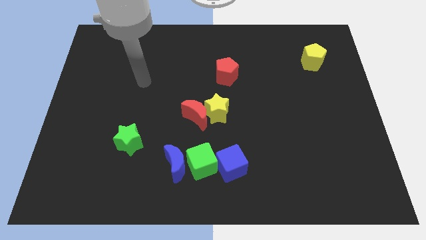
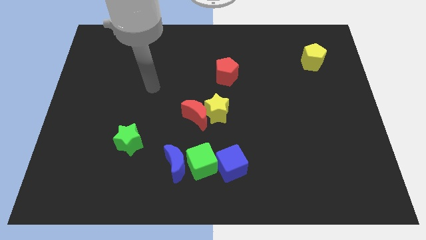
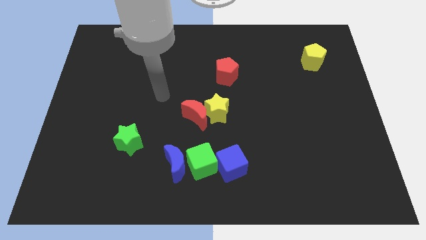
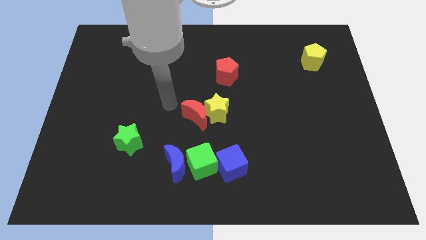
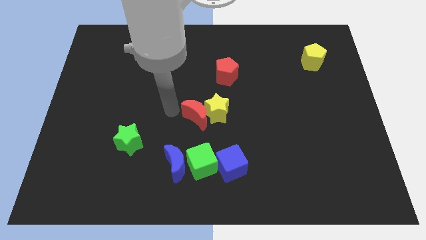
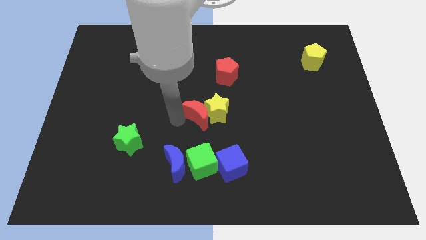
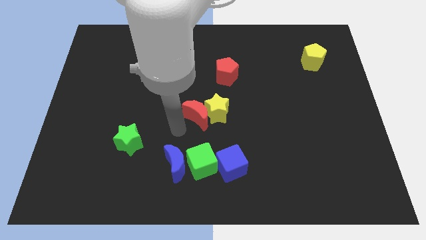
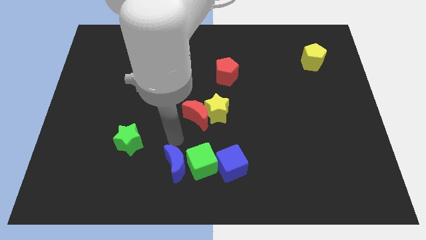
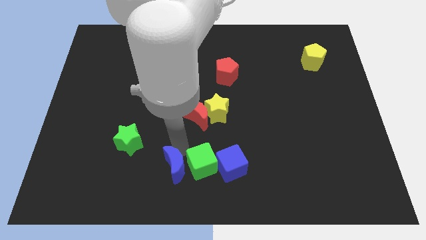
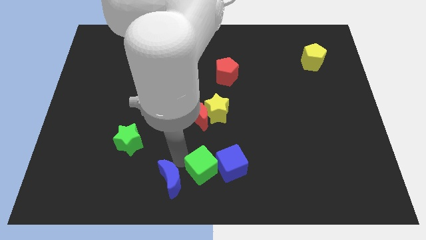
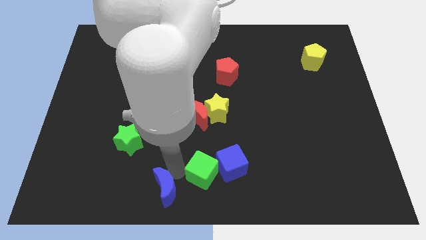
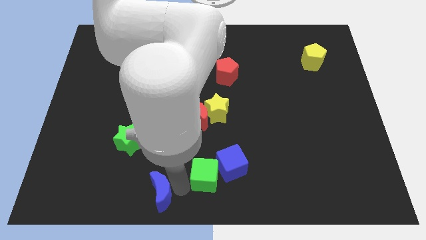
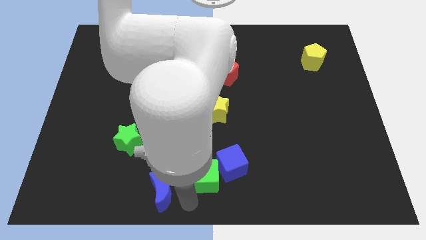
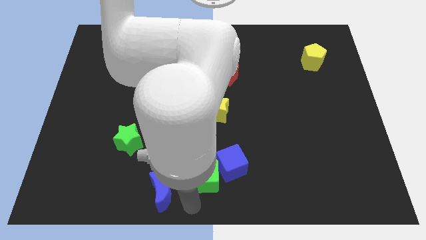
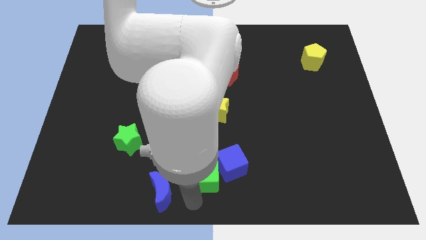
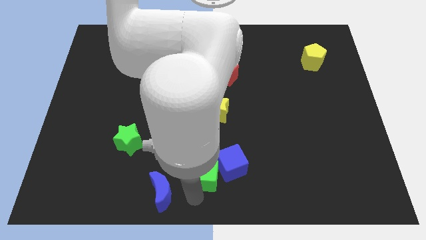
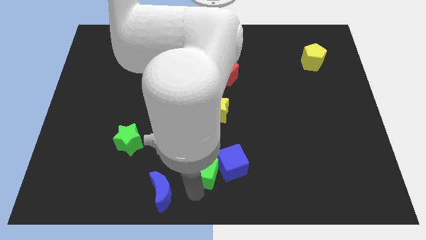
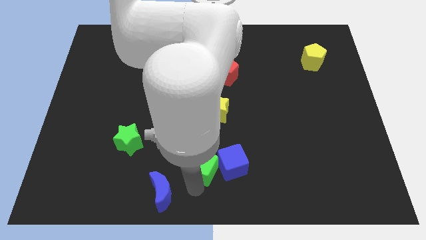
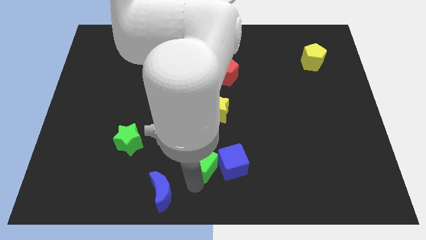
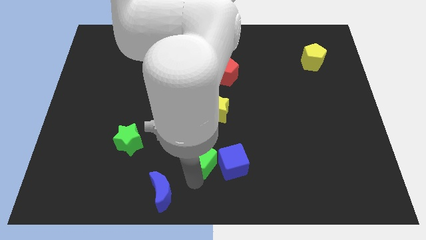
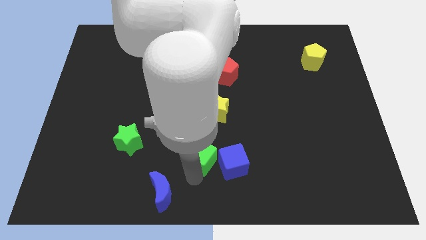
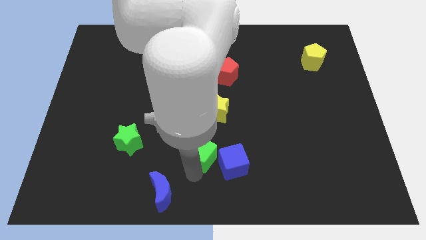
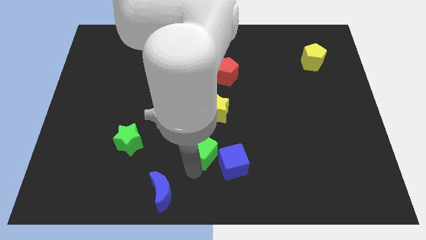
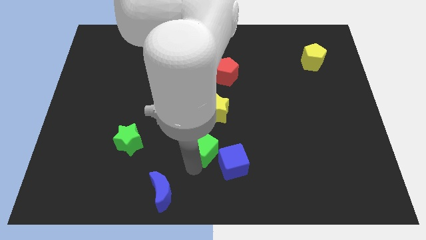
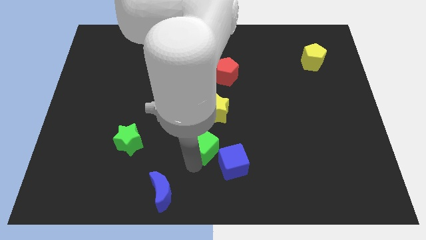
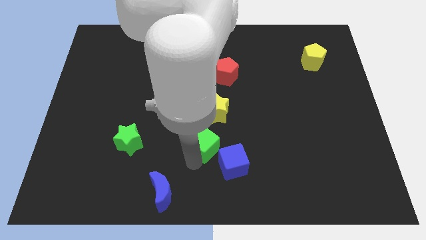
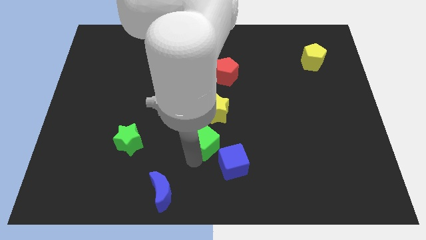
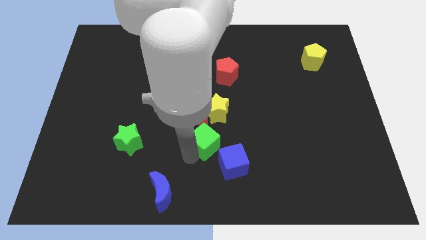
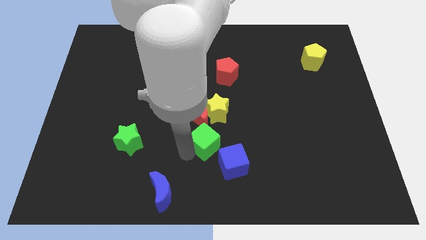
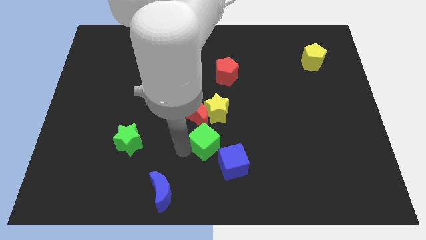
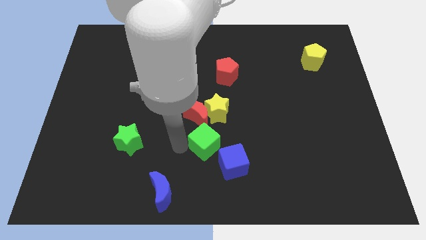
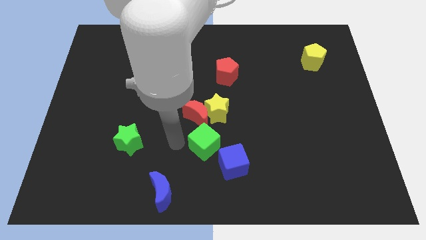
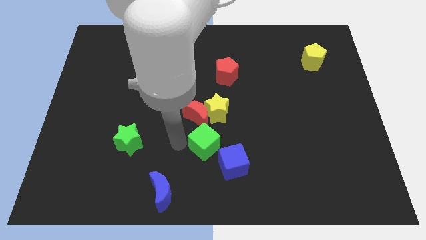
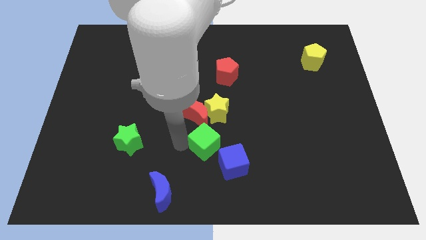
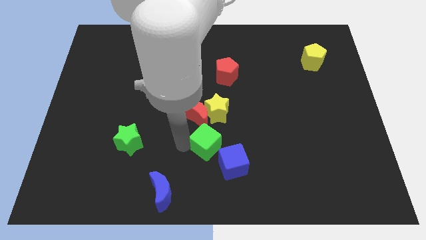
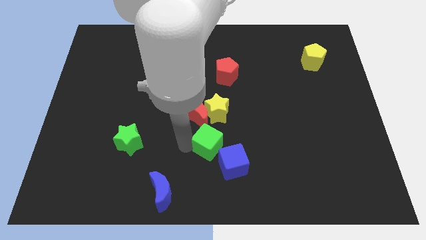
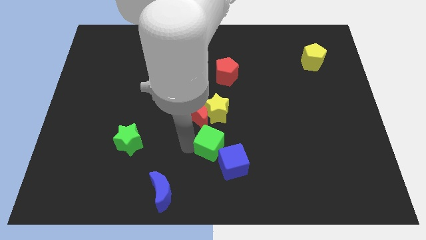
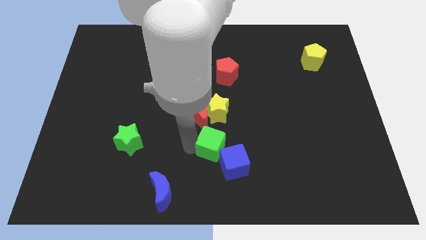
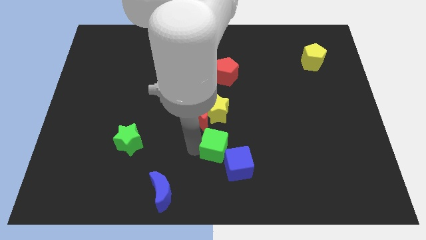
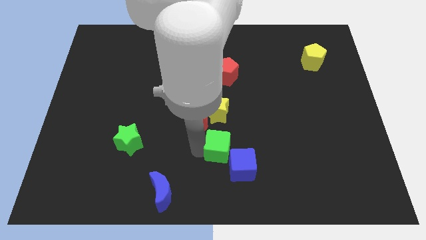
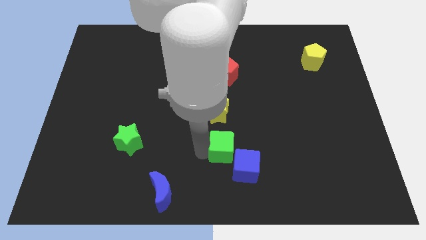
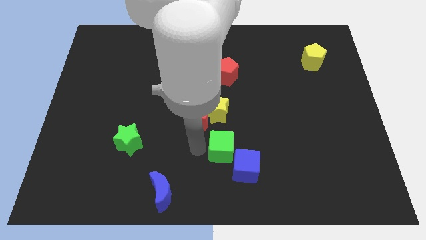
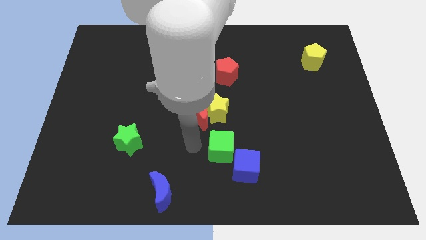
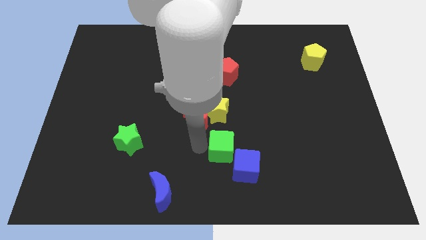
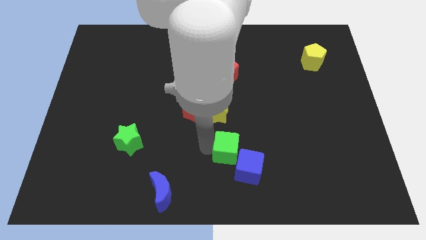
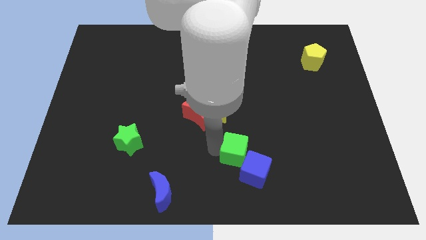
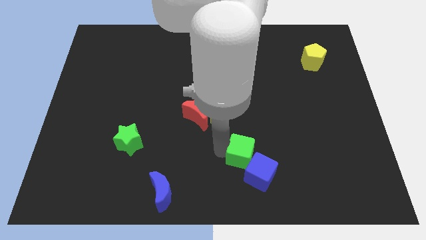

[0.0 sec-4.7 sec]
slide the green cube a little right

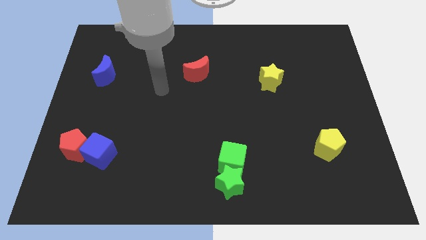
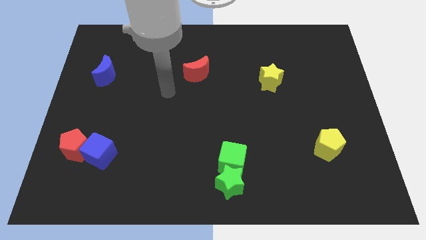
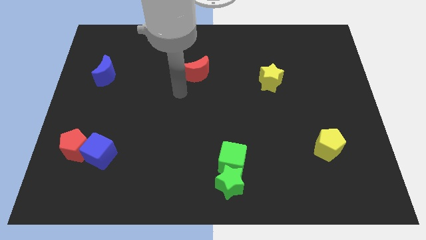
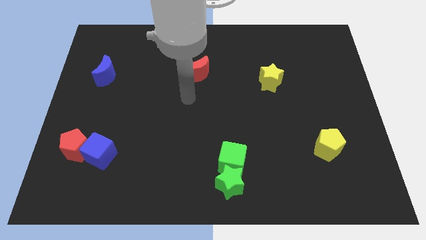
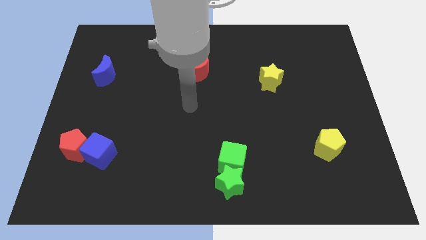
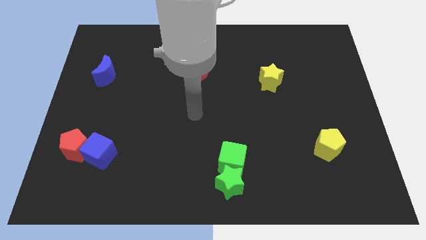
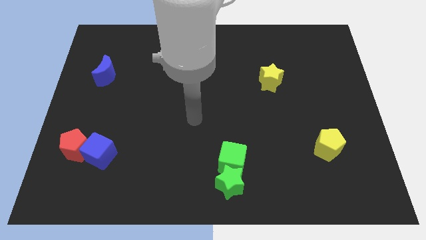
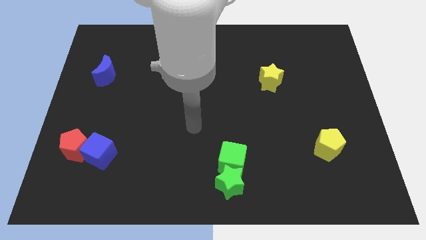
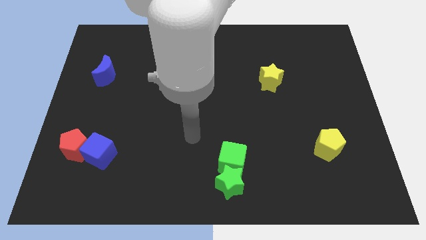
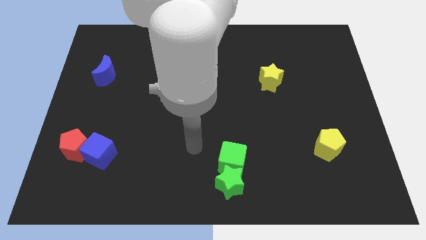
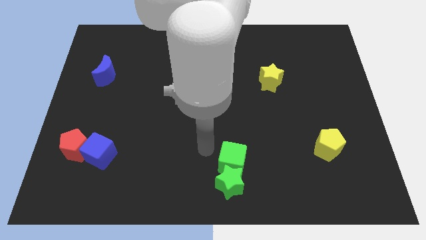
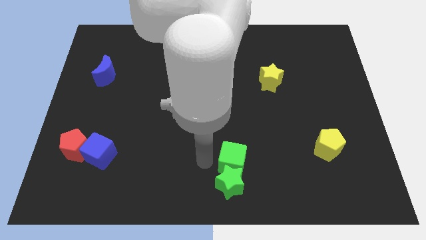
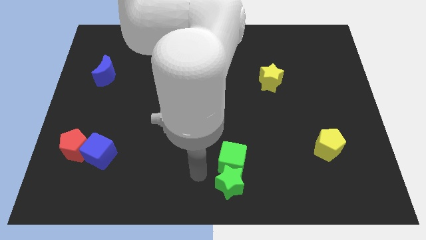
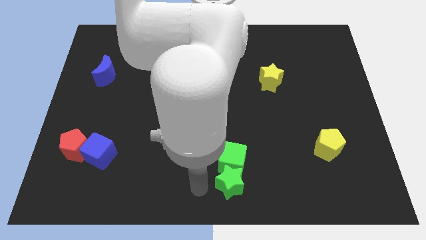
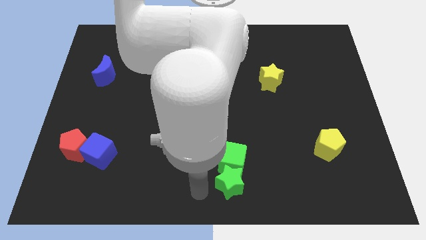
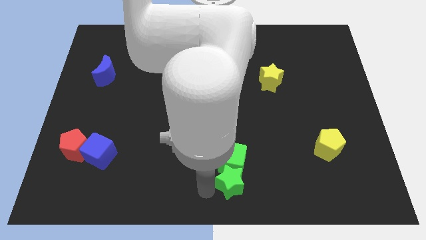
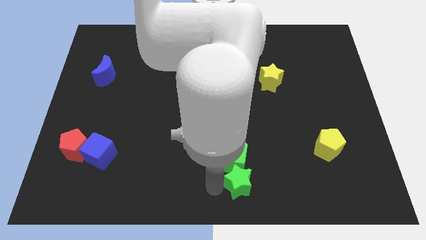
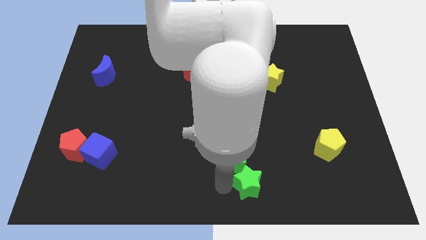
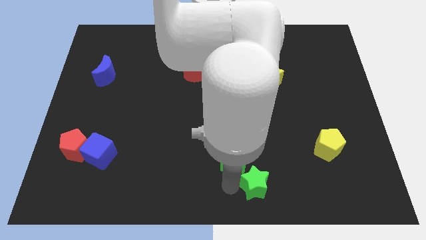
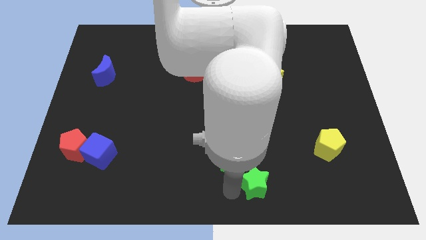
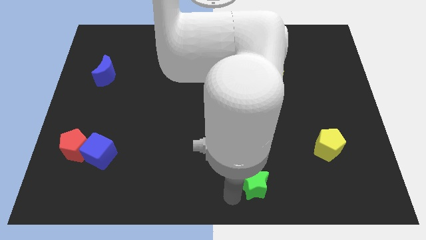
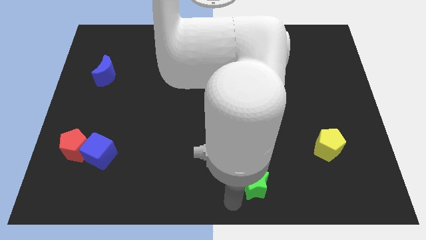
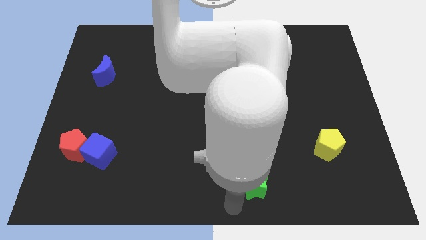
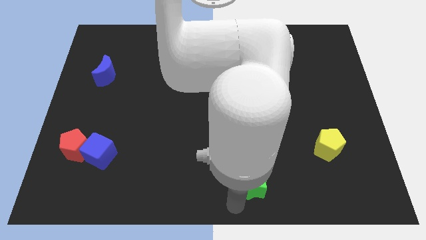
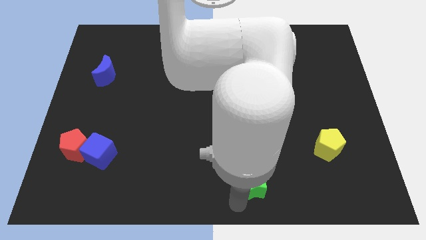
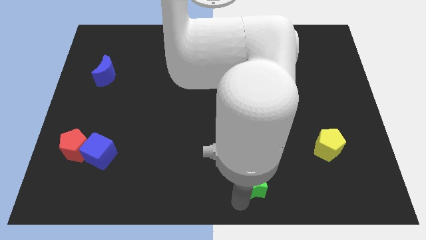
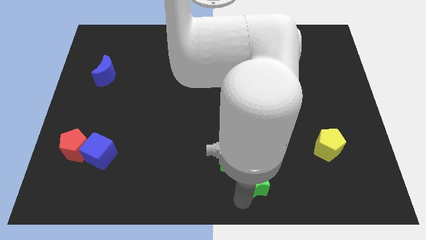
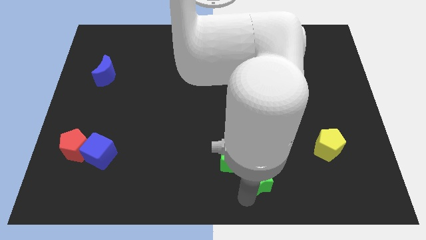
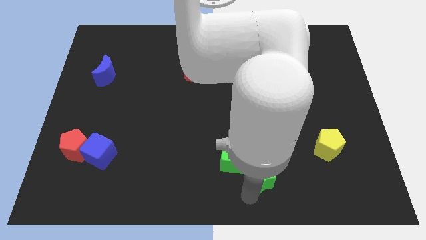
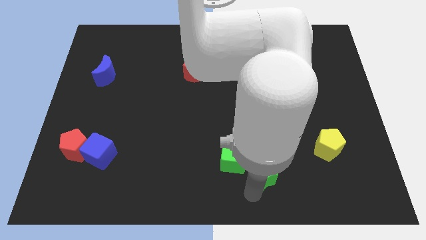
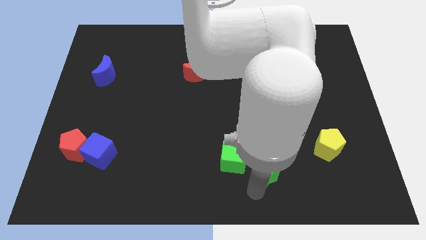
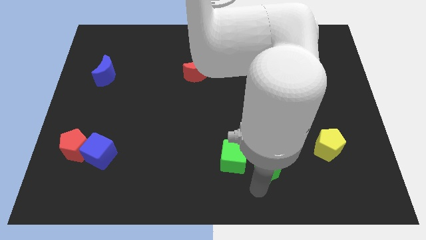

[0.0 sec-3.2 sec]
slide the green star up and to the right somewhat

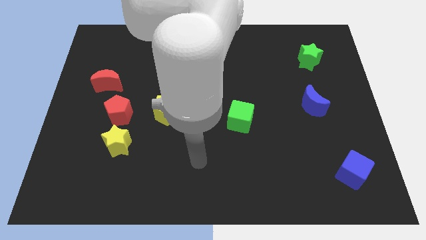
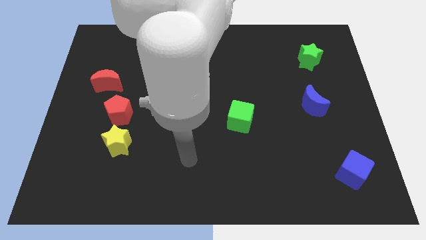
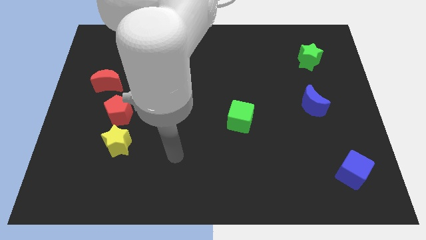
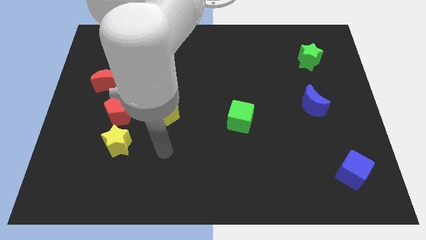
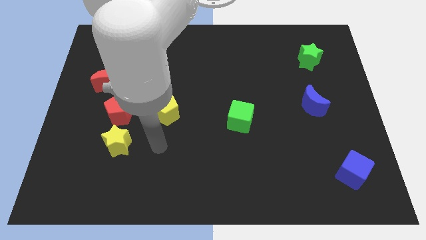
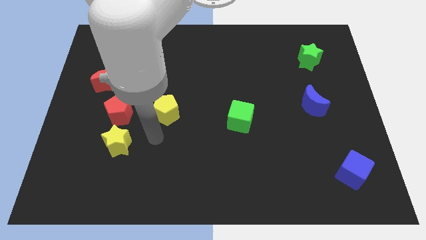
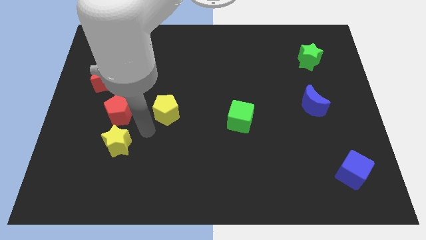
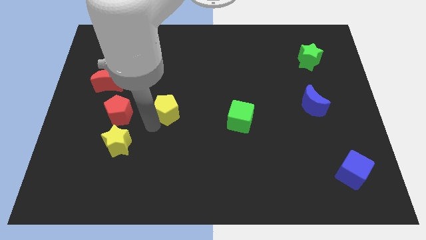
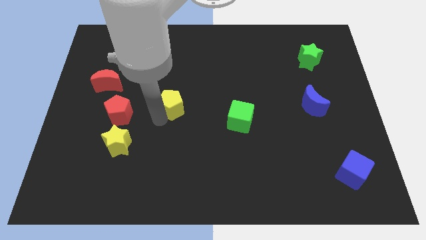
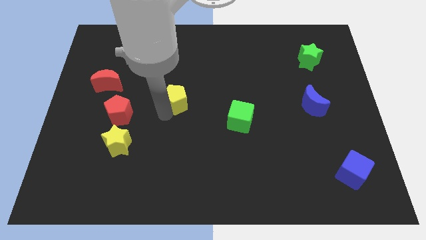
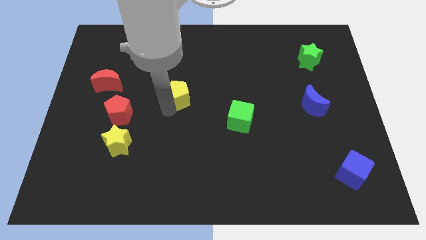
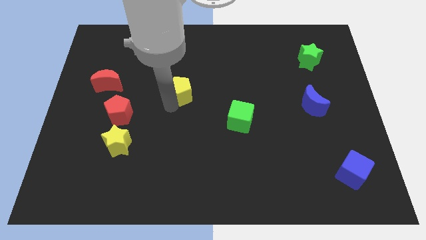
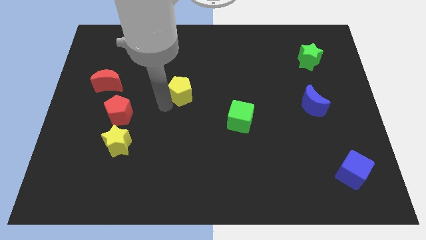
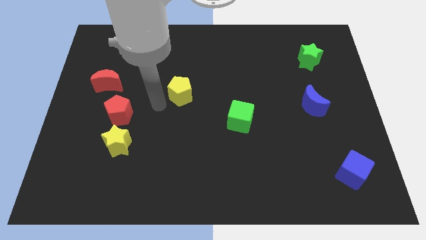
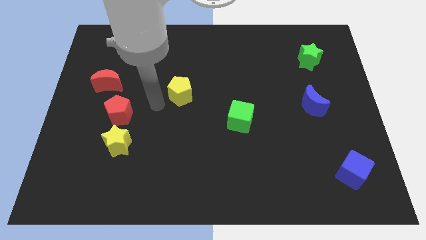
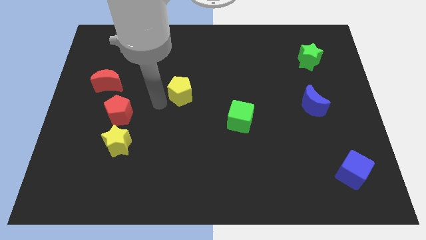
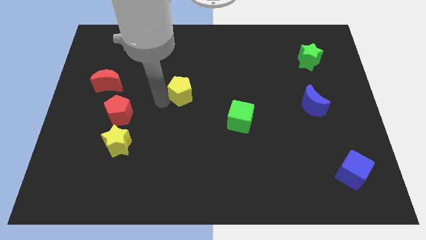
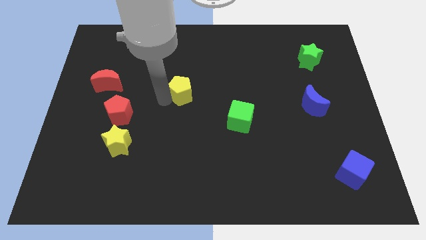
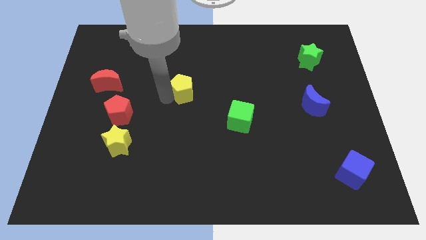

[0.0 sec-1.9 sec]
move the yellow pentagon a little up and then right
